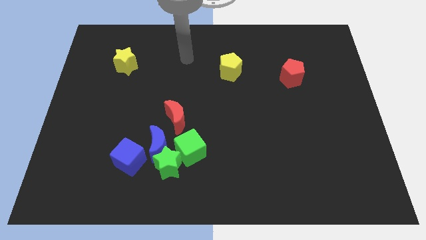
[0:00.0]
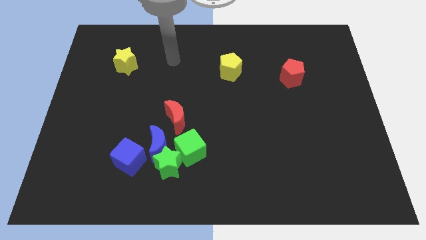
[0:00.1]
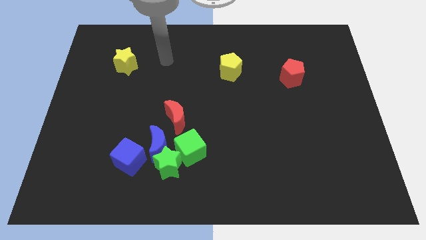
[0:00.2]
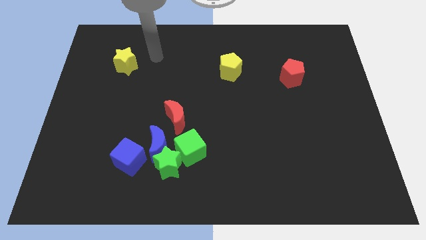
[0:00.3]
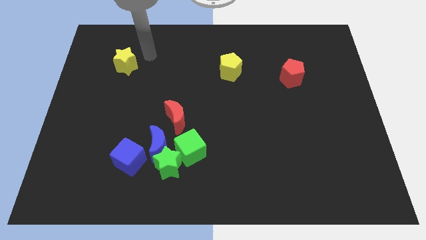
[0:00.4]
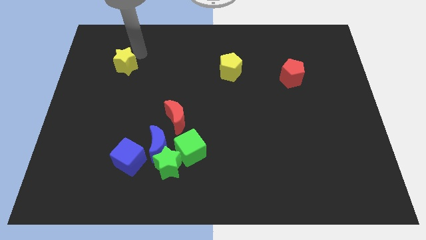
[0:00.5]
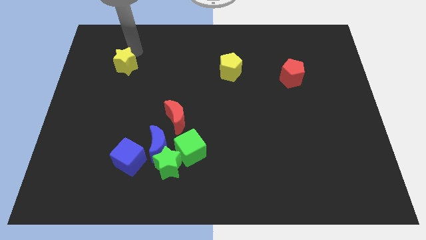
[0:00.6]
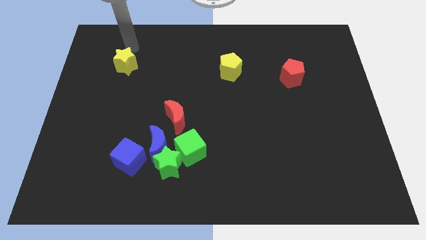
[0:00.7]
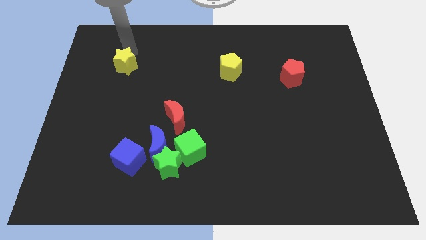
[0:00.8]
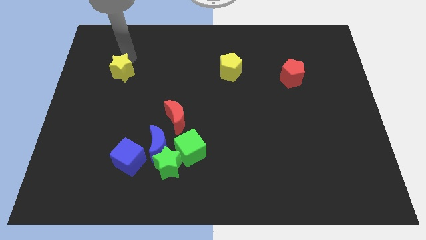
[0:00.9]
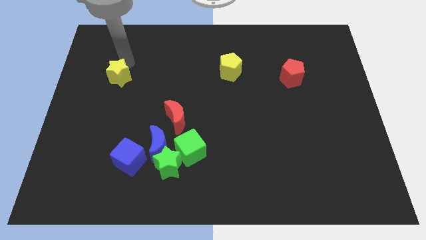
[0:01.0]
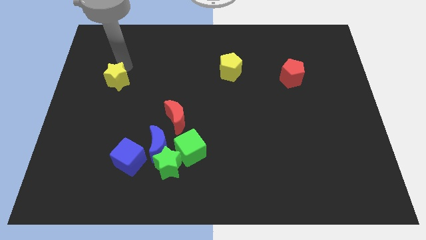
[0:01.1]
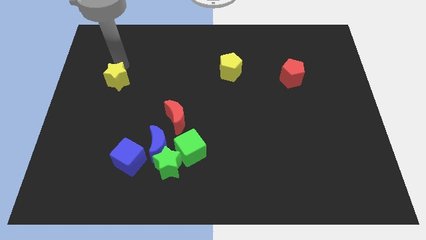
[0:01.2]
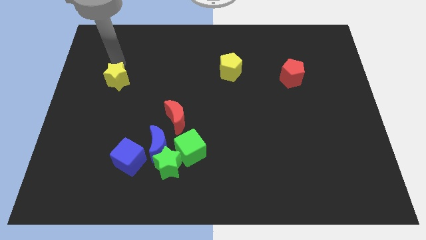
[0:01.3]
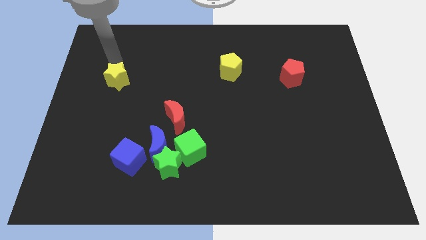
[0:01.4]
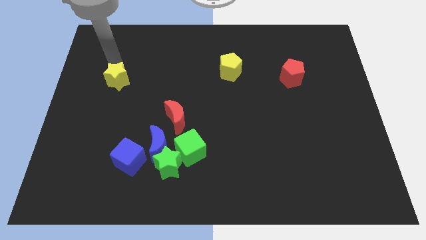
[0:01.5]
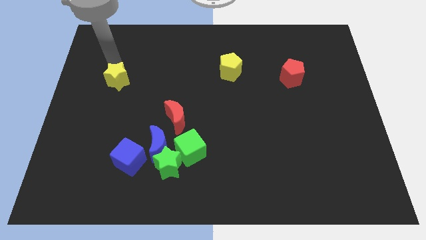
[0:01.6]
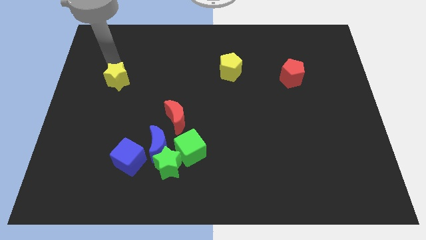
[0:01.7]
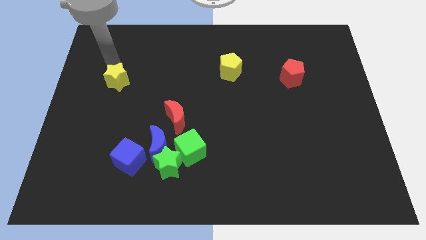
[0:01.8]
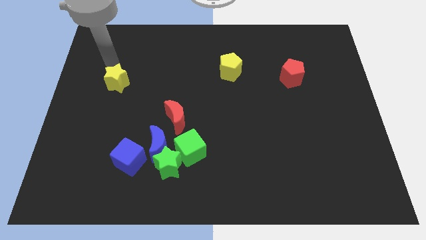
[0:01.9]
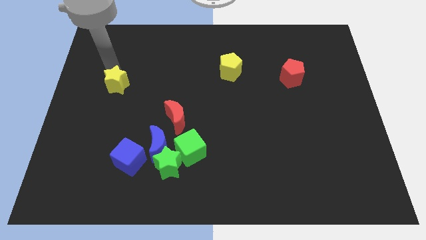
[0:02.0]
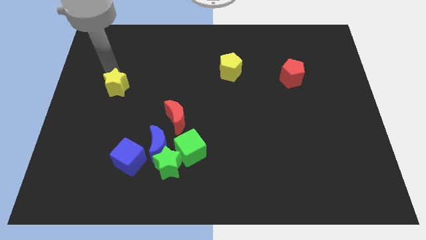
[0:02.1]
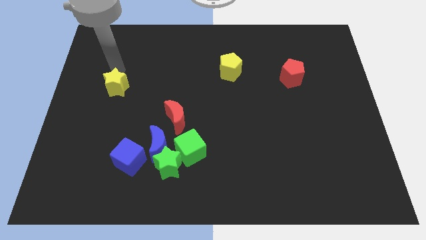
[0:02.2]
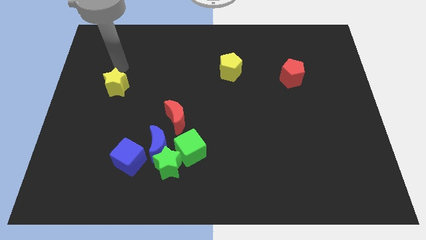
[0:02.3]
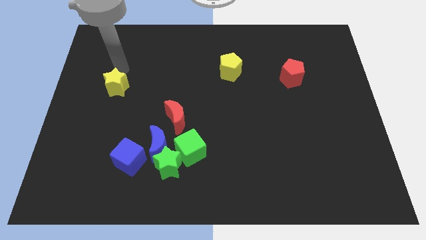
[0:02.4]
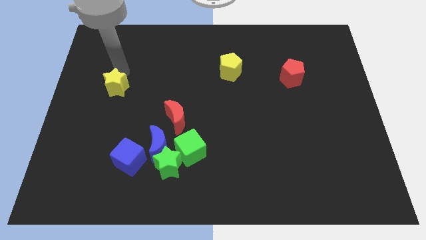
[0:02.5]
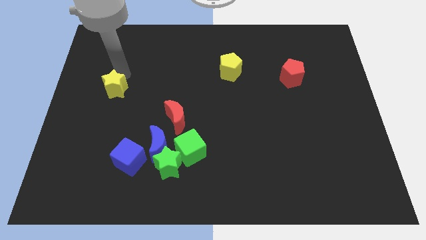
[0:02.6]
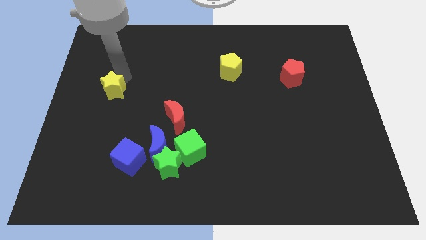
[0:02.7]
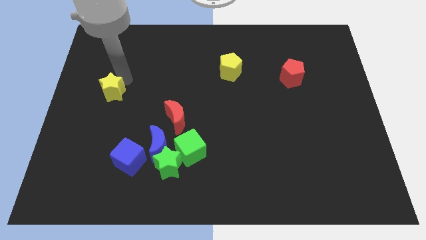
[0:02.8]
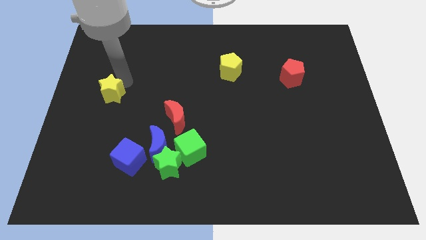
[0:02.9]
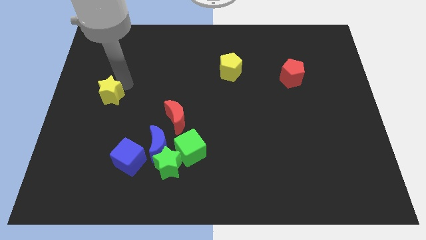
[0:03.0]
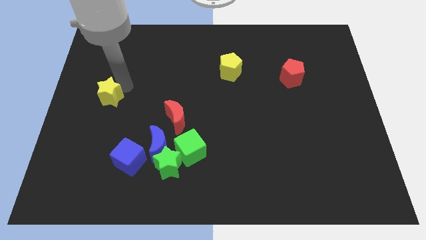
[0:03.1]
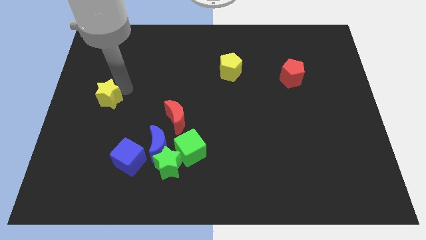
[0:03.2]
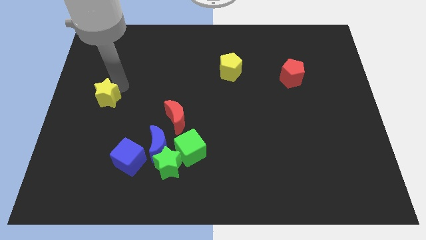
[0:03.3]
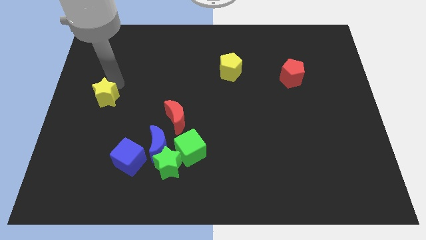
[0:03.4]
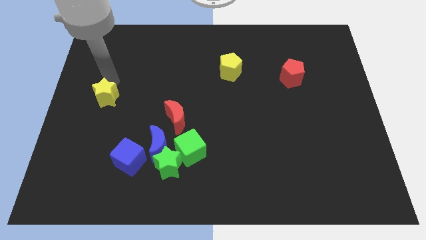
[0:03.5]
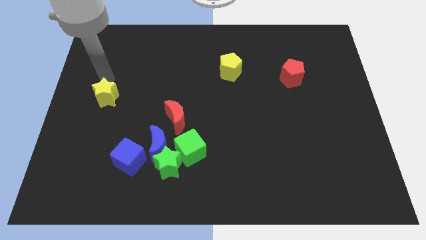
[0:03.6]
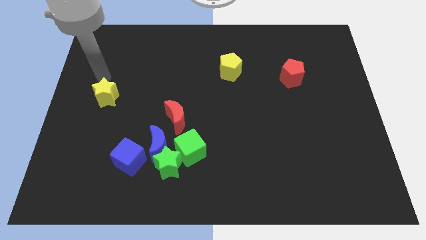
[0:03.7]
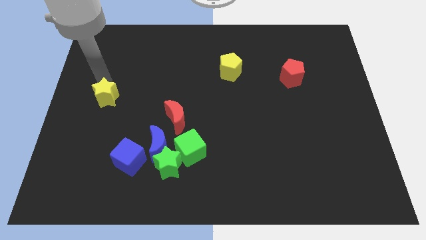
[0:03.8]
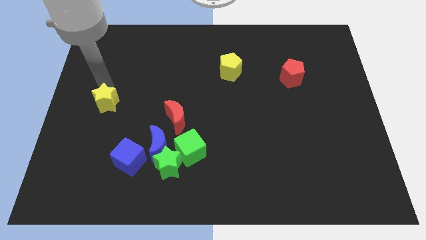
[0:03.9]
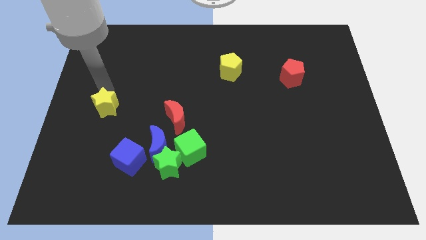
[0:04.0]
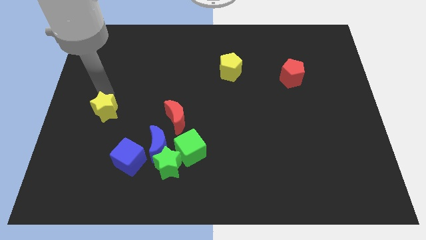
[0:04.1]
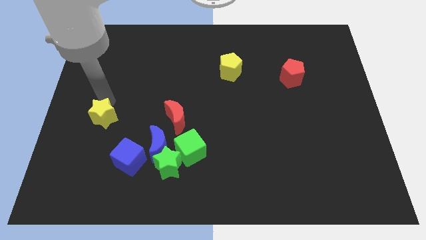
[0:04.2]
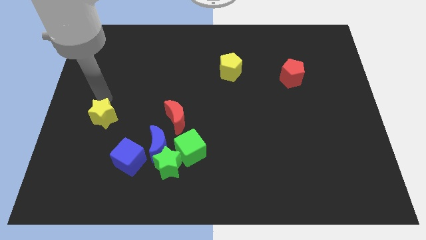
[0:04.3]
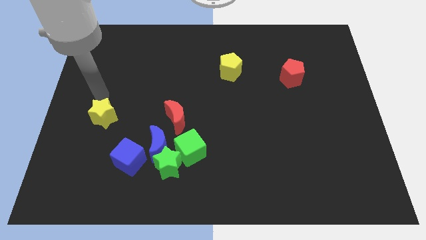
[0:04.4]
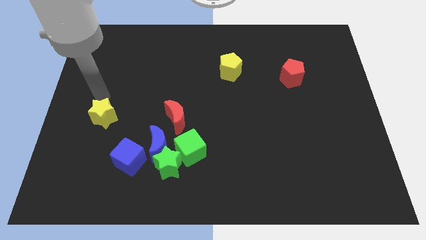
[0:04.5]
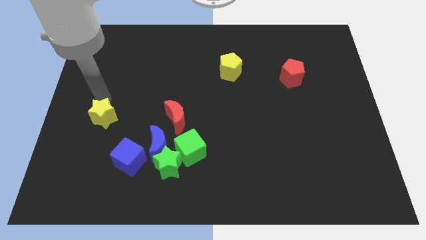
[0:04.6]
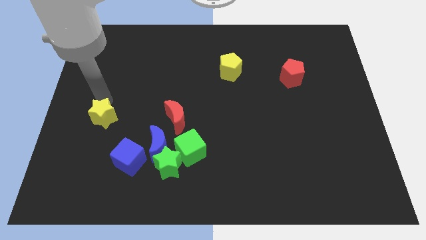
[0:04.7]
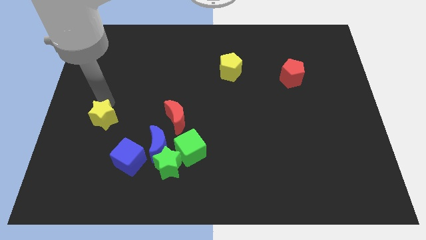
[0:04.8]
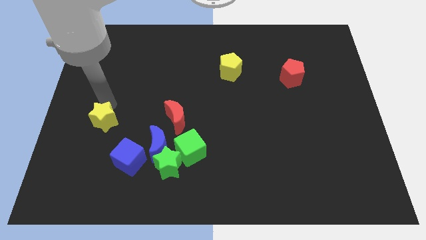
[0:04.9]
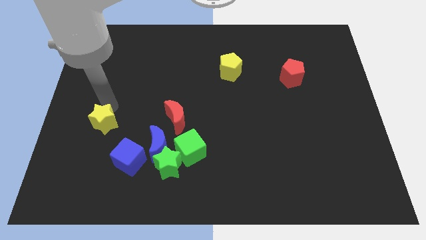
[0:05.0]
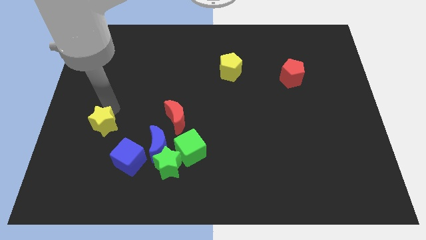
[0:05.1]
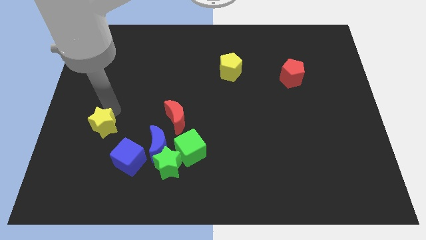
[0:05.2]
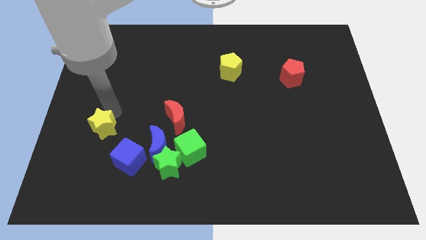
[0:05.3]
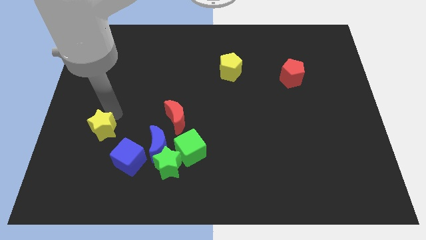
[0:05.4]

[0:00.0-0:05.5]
move the yellow star down

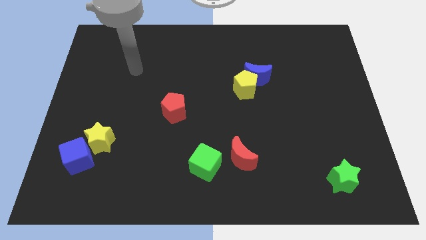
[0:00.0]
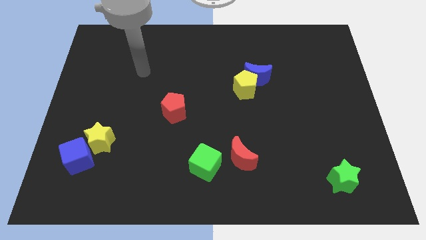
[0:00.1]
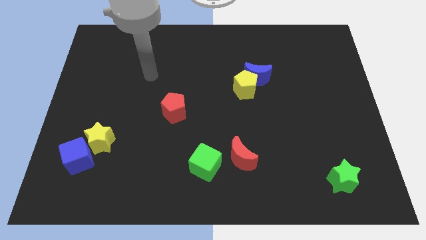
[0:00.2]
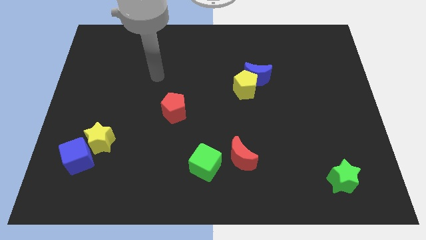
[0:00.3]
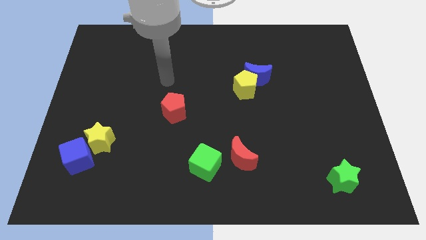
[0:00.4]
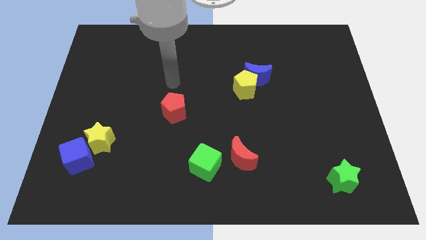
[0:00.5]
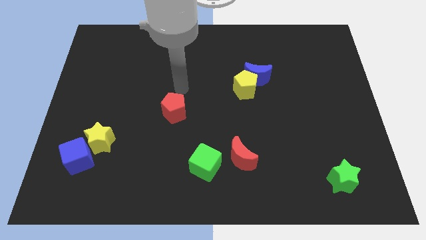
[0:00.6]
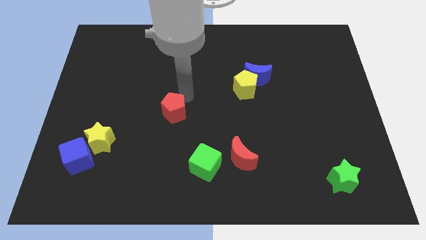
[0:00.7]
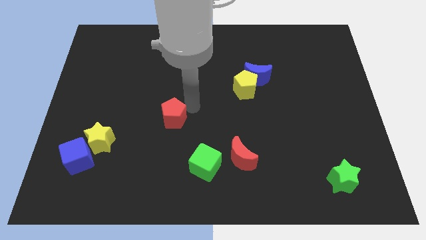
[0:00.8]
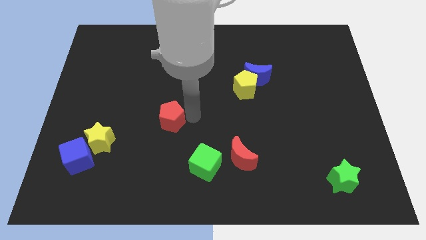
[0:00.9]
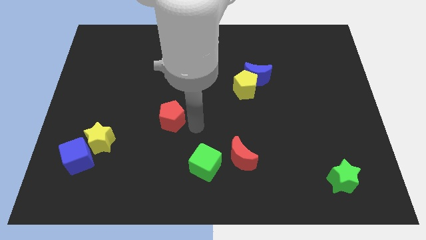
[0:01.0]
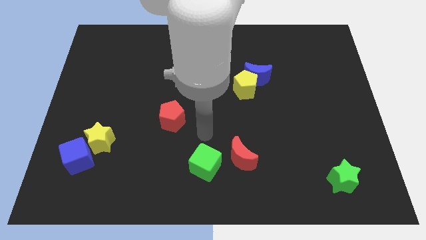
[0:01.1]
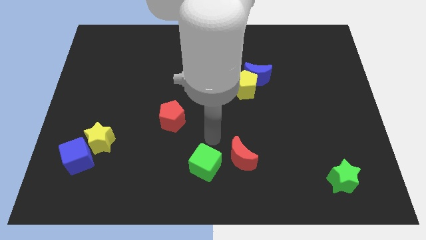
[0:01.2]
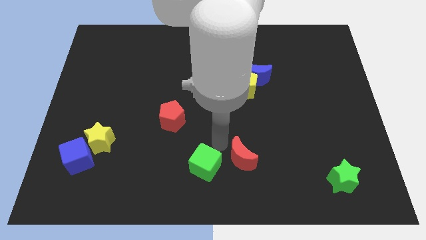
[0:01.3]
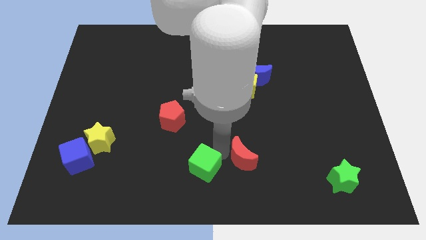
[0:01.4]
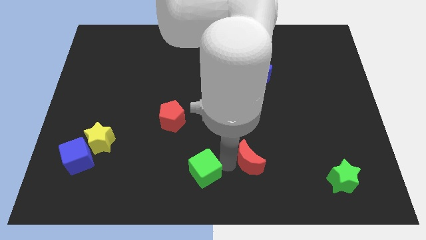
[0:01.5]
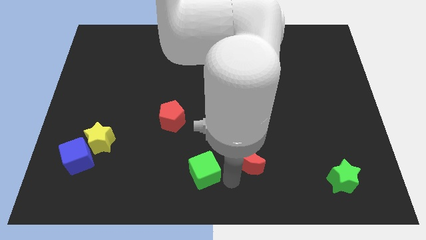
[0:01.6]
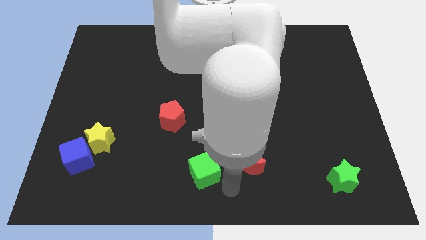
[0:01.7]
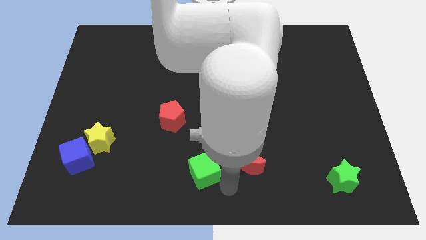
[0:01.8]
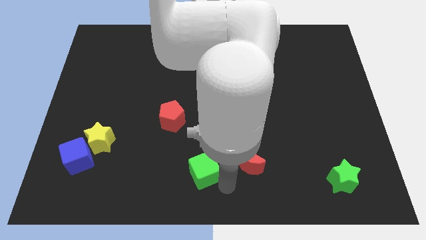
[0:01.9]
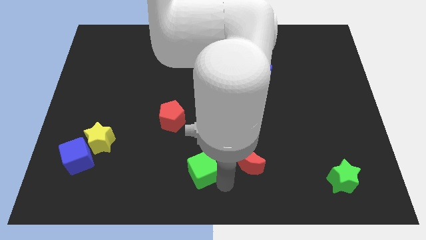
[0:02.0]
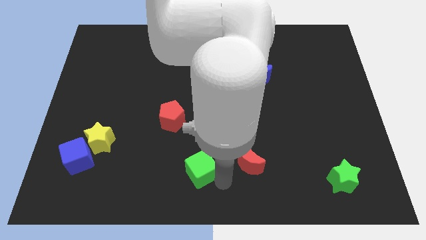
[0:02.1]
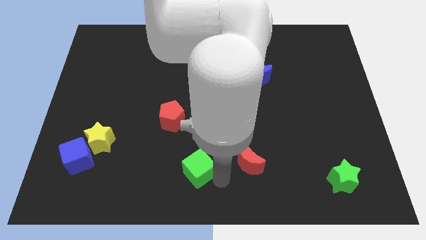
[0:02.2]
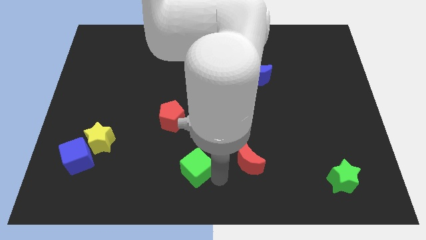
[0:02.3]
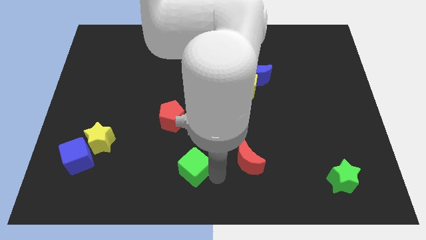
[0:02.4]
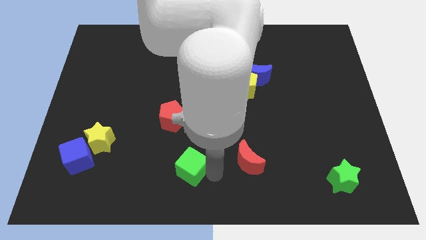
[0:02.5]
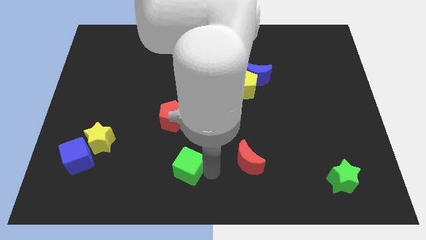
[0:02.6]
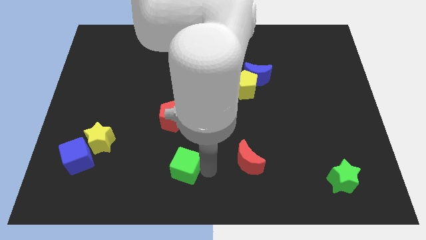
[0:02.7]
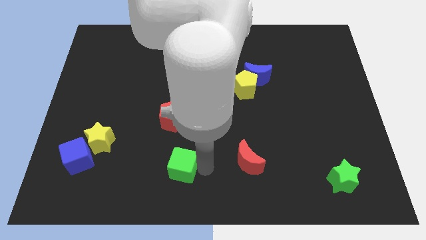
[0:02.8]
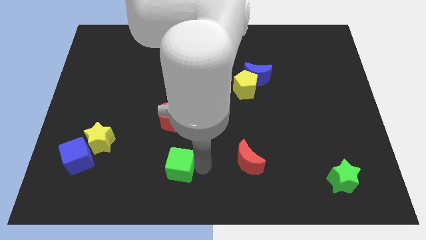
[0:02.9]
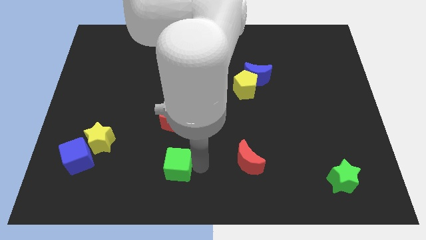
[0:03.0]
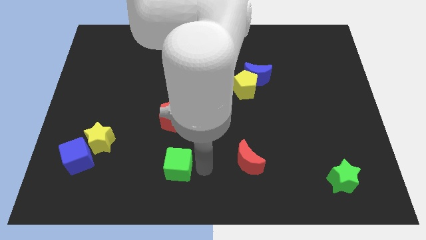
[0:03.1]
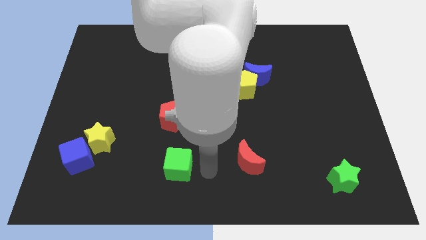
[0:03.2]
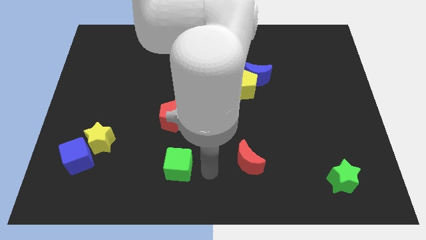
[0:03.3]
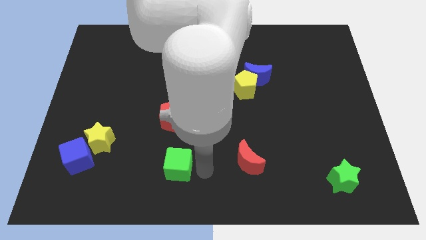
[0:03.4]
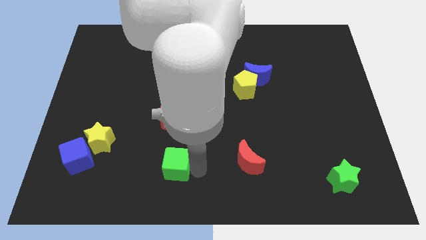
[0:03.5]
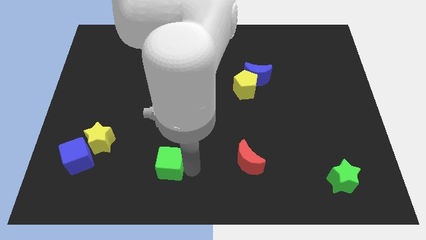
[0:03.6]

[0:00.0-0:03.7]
move the green cube left a little bit
